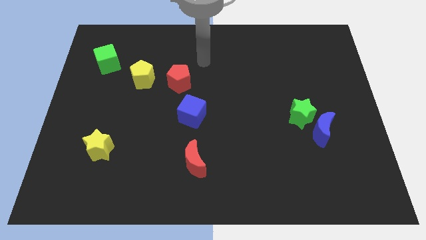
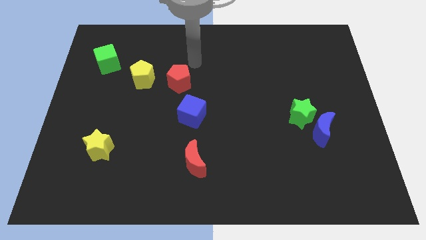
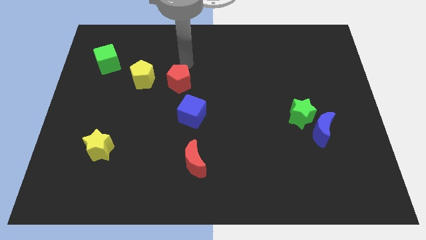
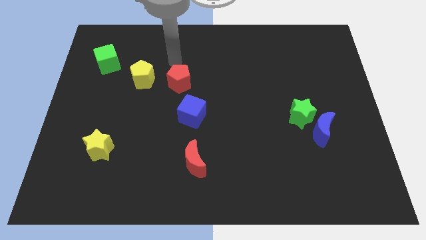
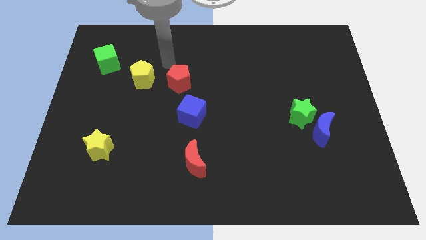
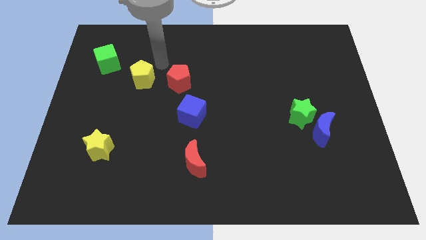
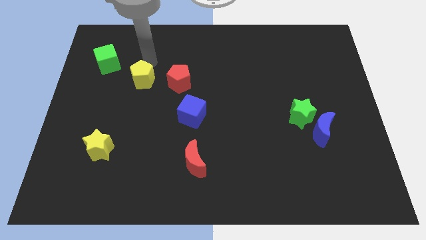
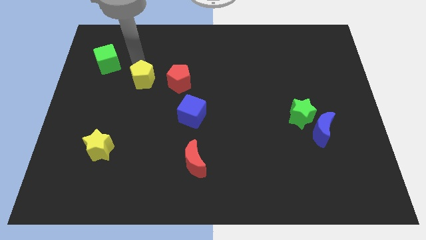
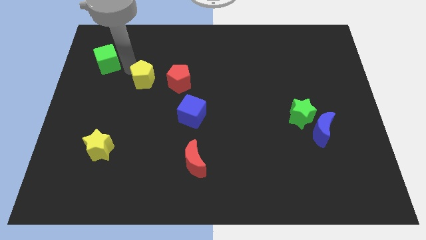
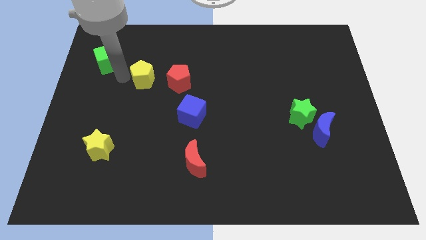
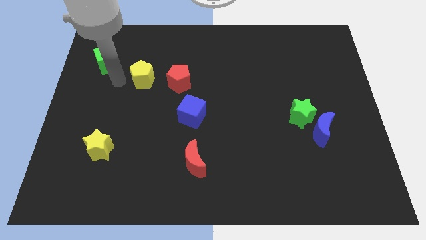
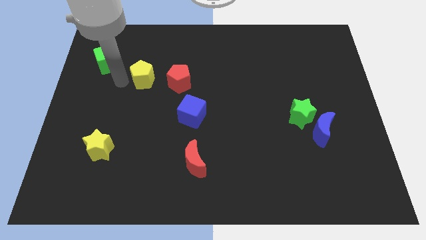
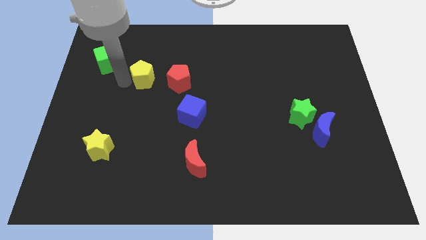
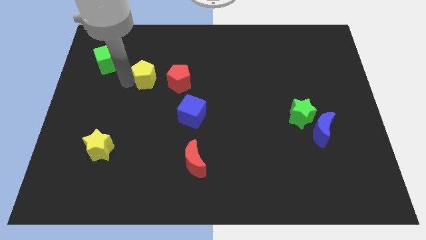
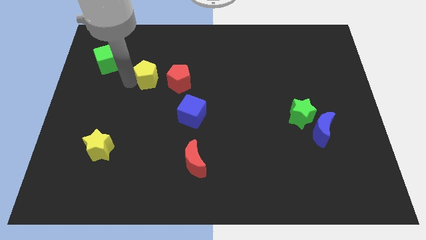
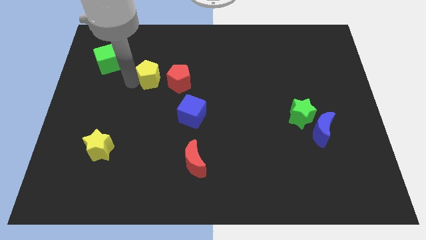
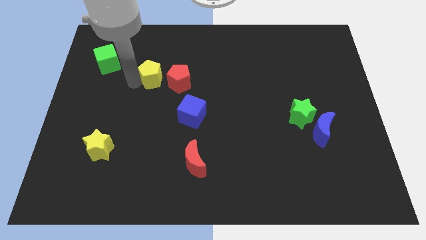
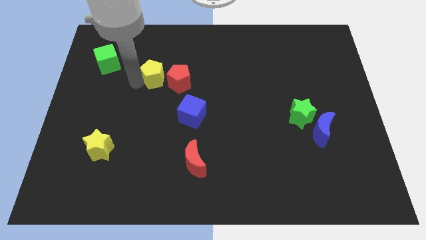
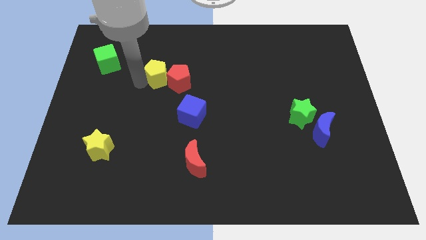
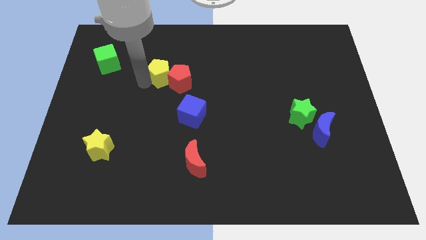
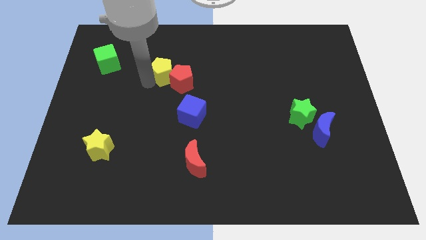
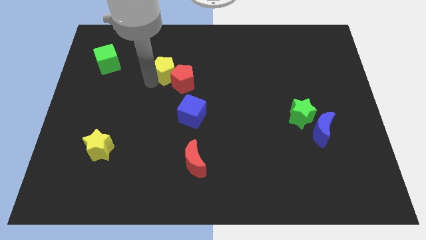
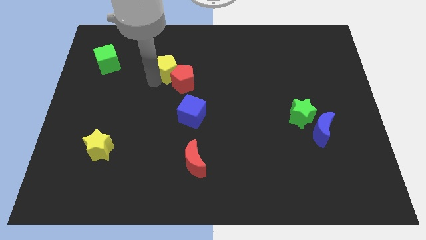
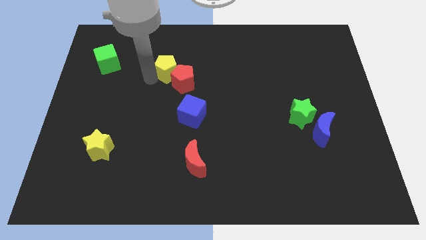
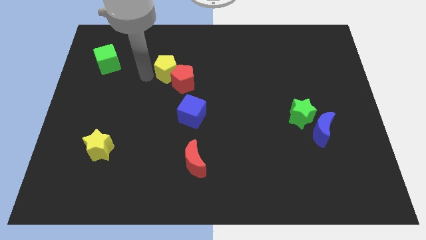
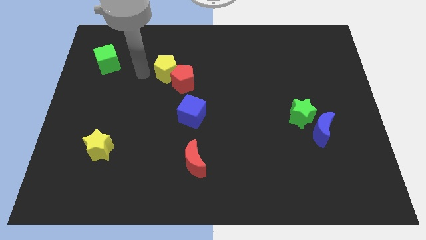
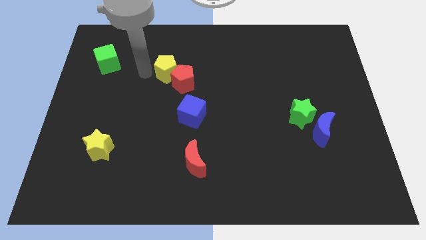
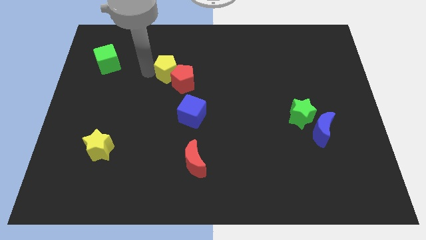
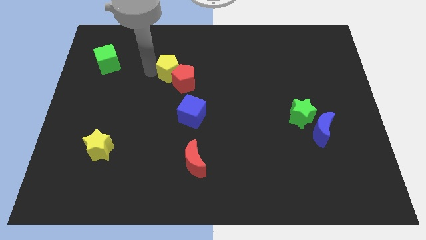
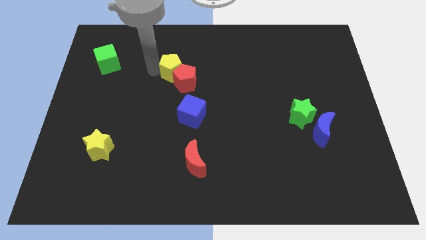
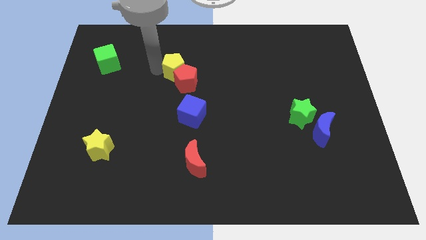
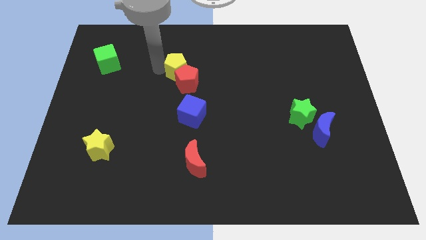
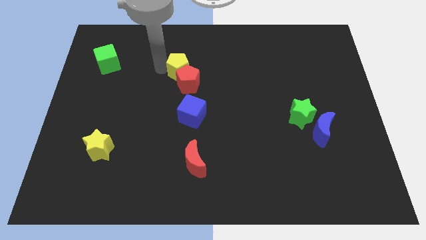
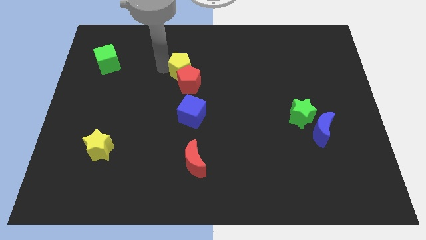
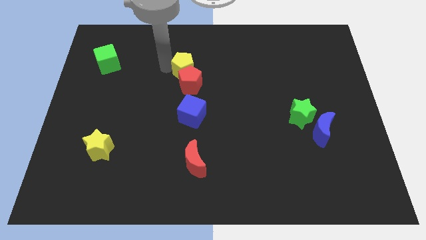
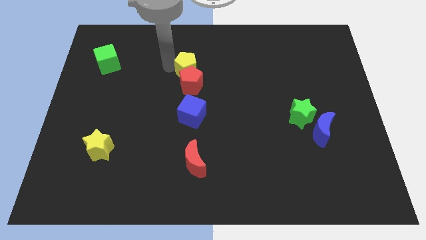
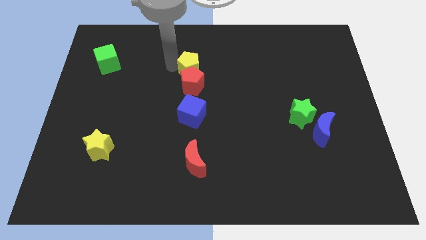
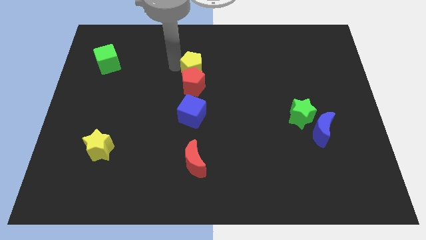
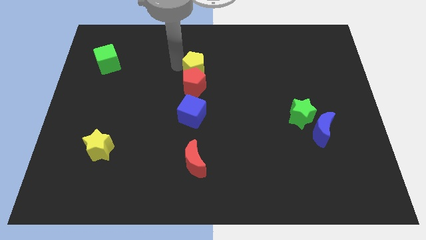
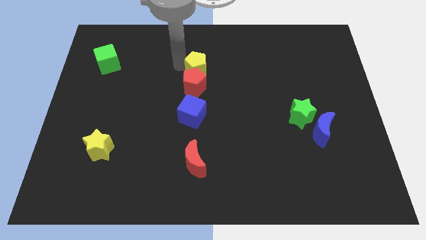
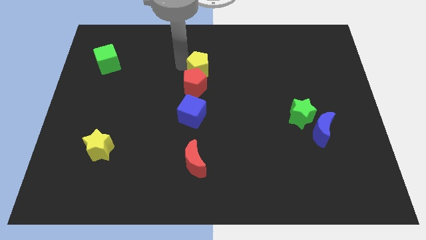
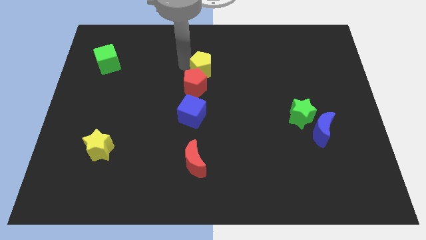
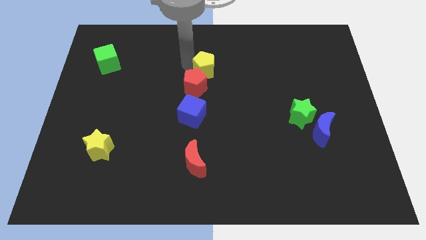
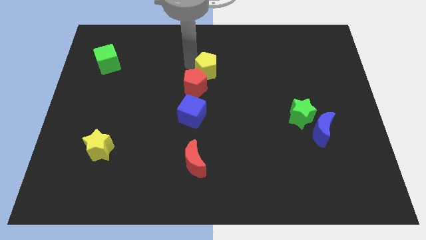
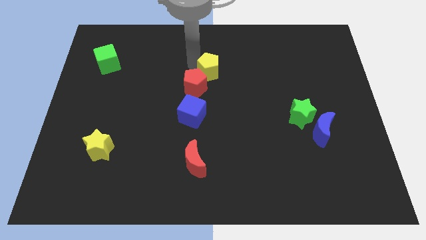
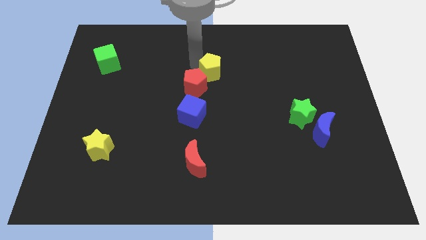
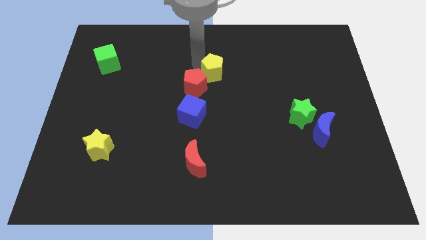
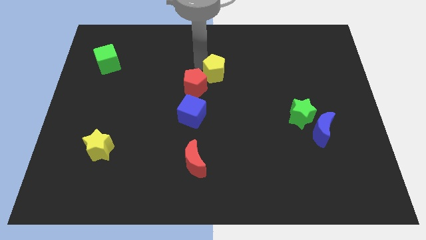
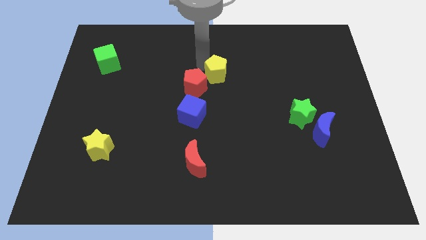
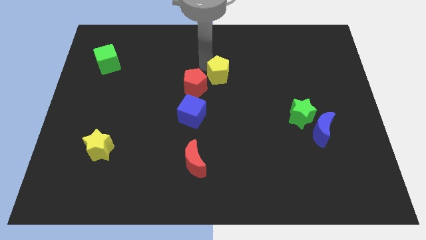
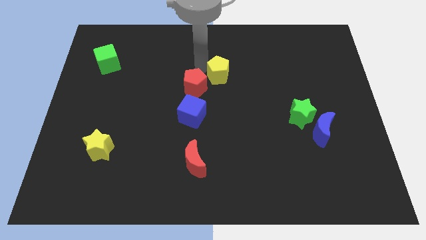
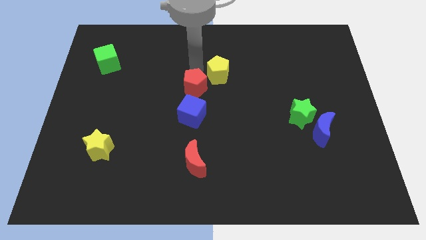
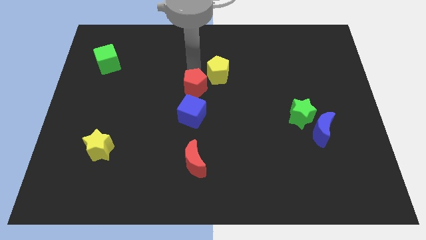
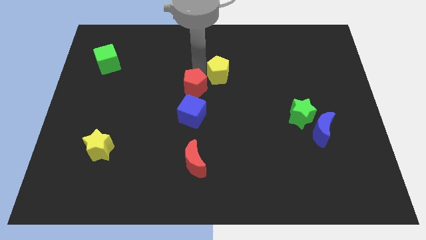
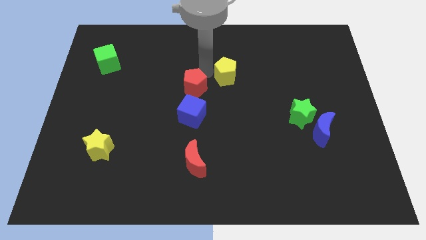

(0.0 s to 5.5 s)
move the yellow pentagon to the right

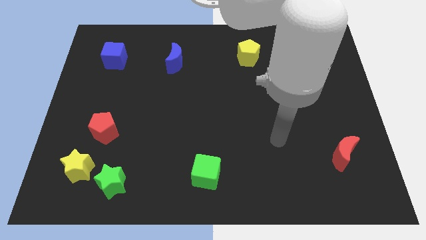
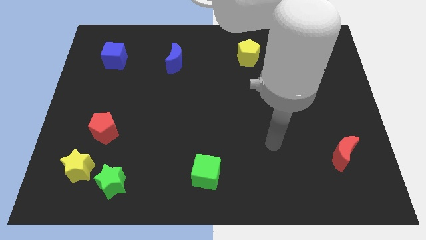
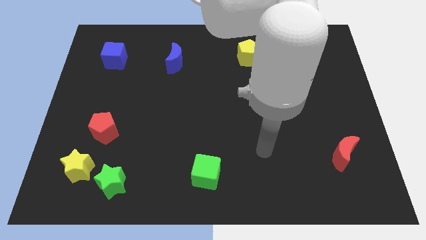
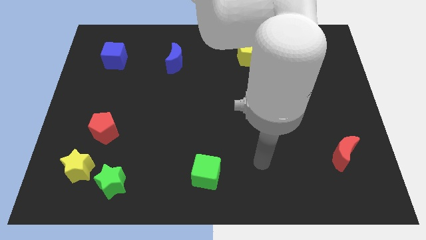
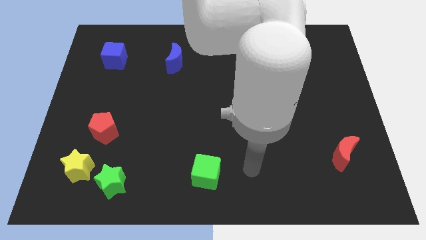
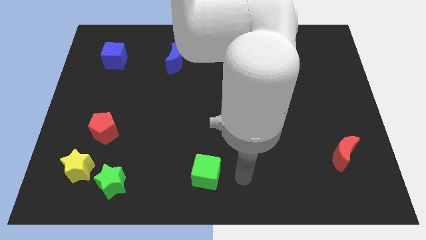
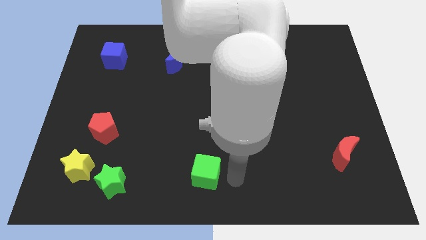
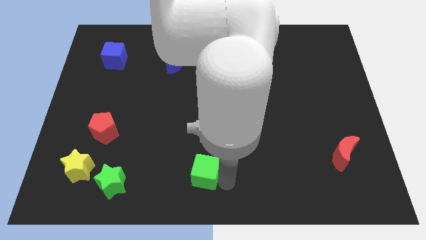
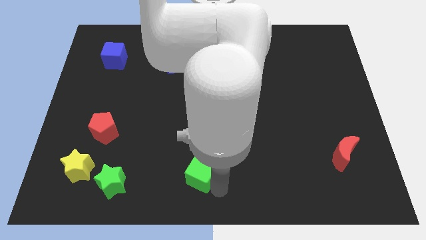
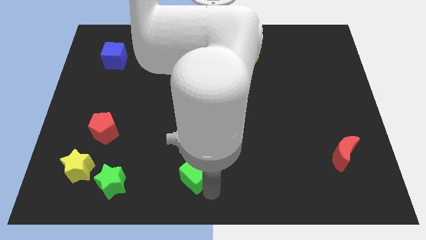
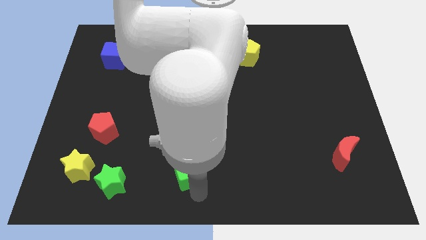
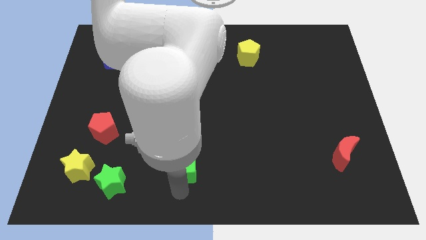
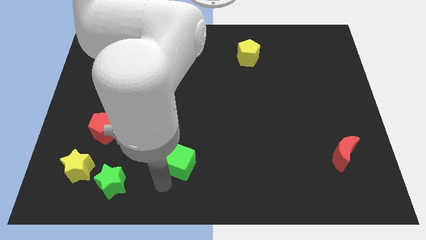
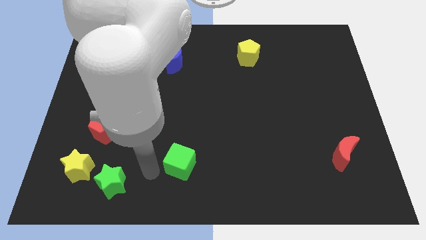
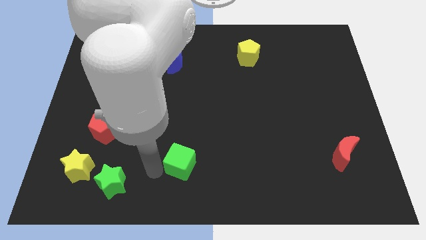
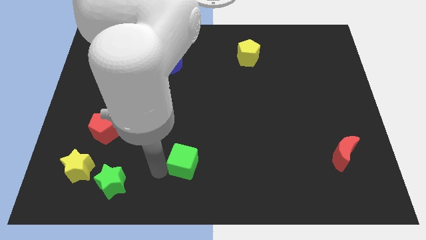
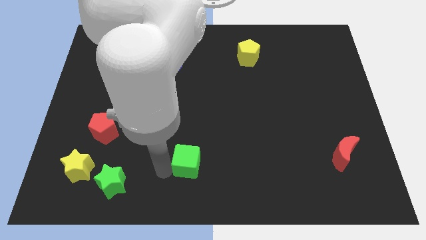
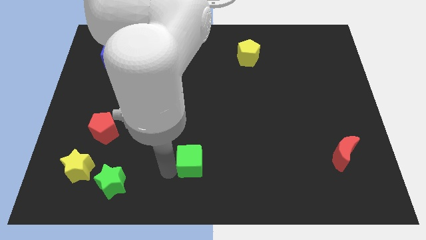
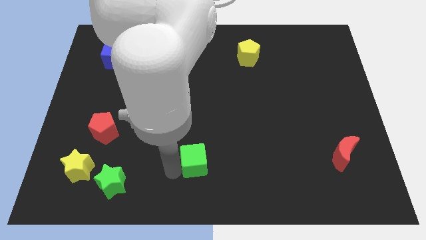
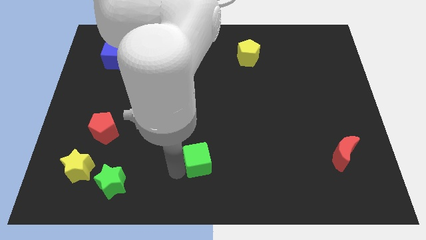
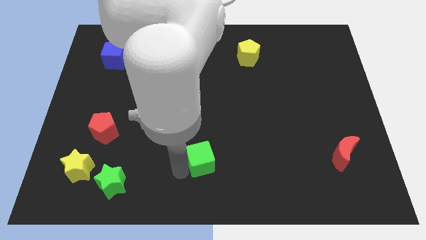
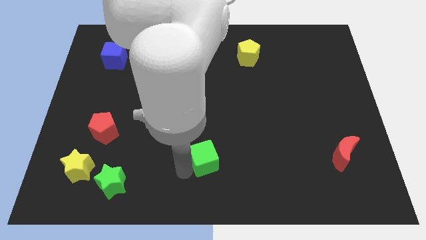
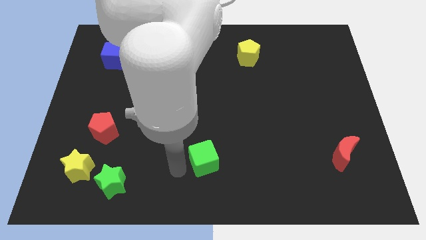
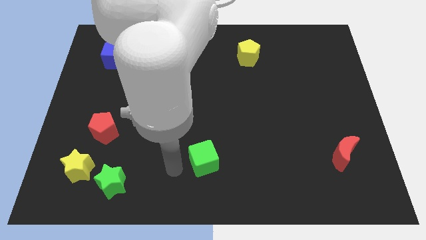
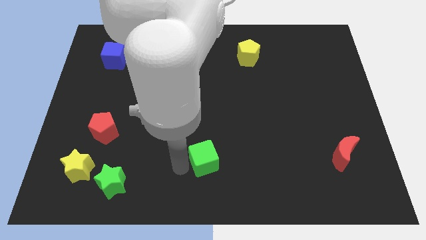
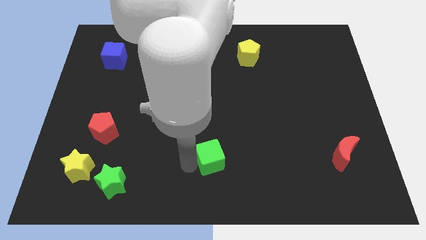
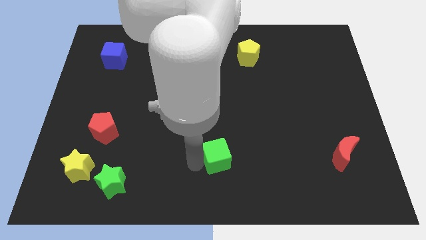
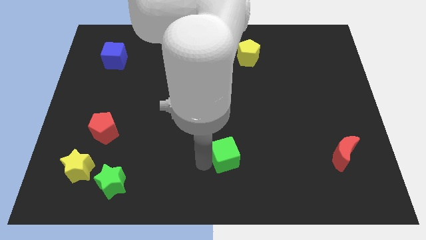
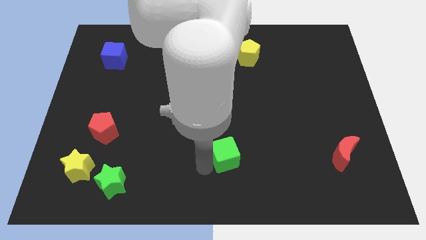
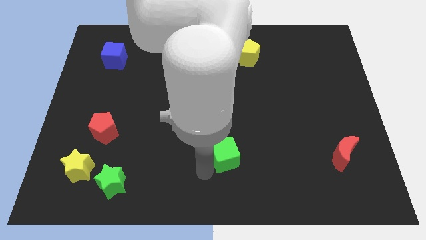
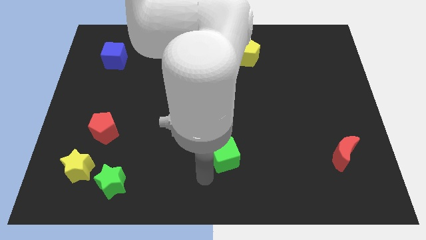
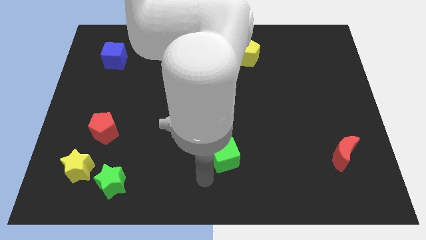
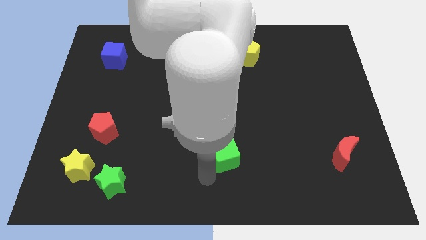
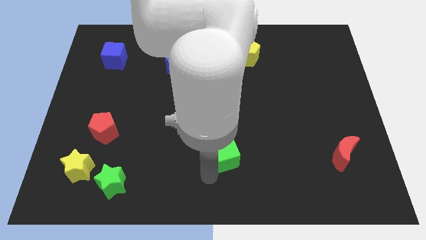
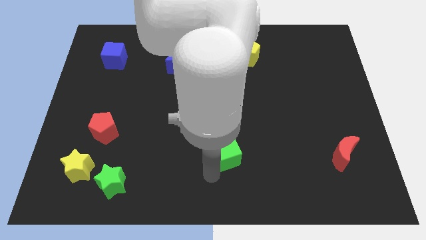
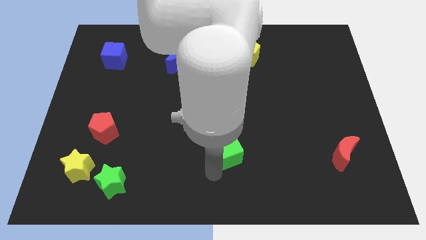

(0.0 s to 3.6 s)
slightly slide the green cube upwards and to the right
